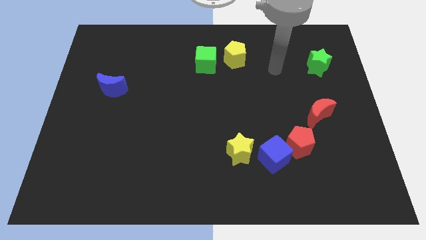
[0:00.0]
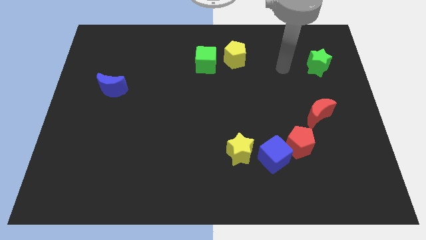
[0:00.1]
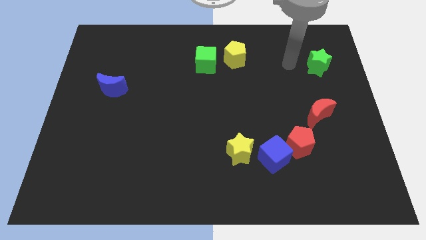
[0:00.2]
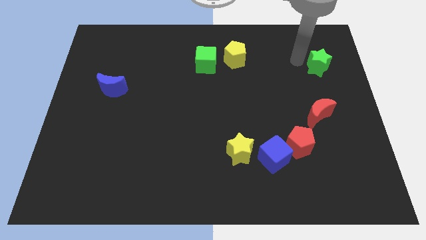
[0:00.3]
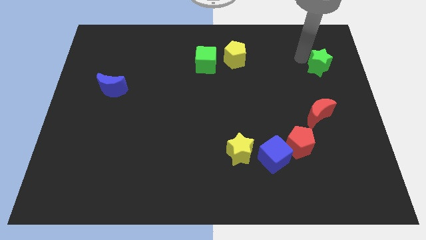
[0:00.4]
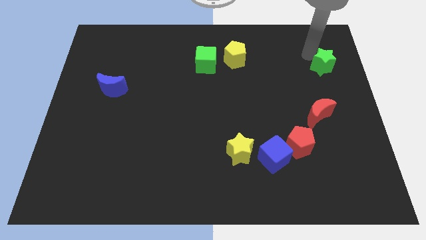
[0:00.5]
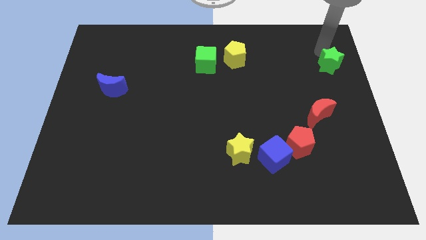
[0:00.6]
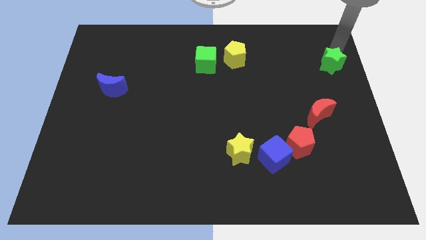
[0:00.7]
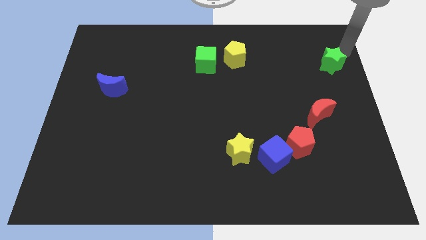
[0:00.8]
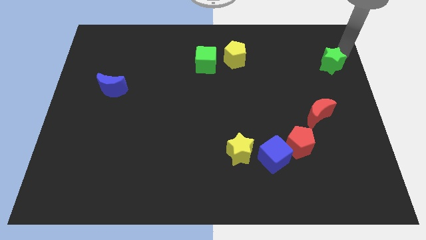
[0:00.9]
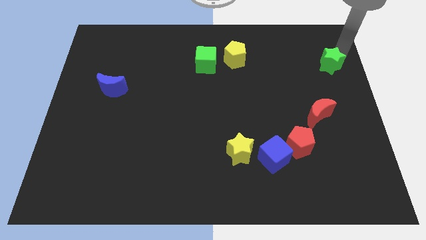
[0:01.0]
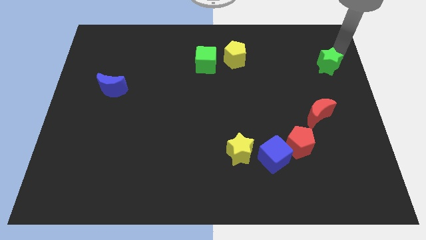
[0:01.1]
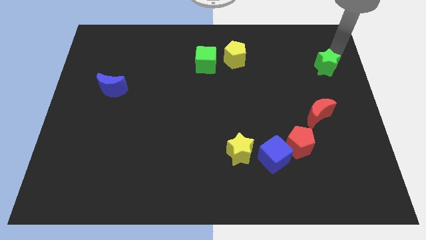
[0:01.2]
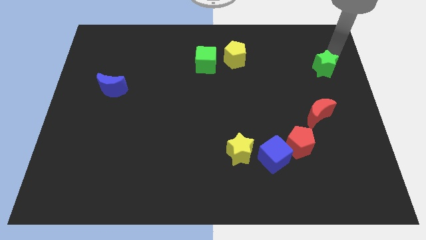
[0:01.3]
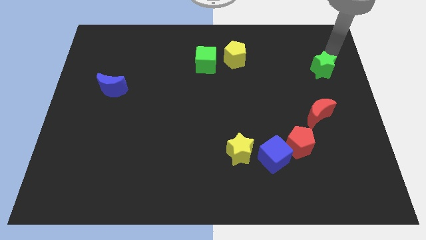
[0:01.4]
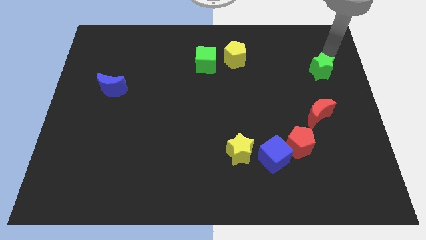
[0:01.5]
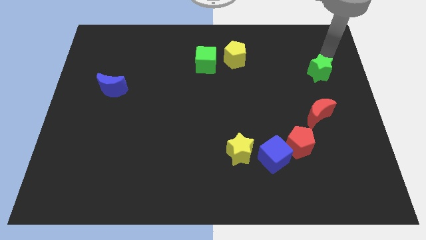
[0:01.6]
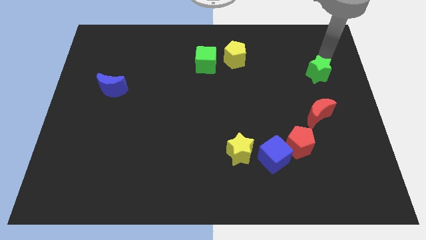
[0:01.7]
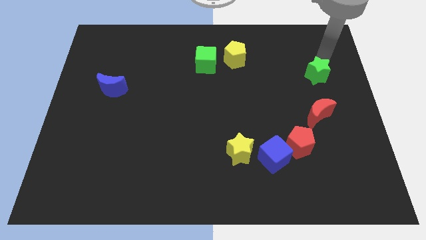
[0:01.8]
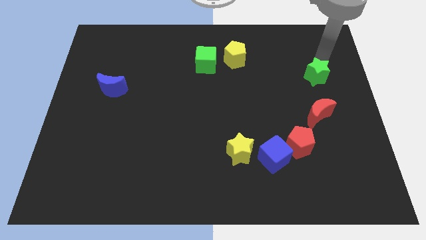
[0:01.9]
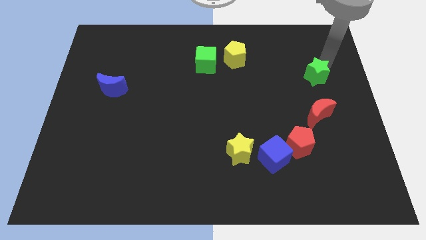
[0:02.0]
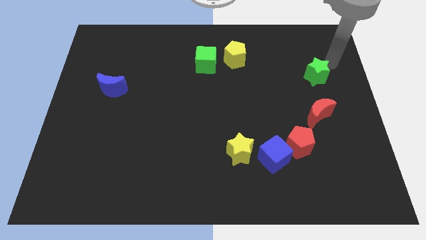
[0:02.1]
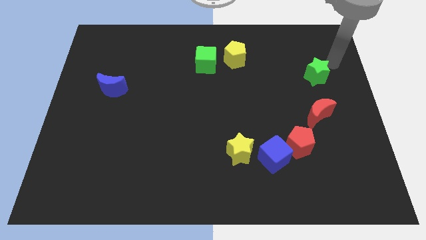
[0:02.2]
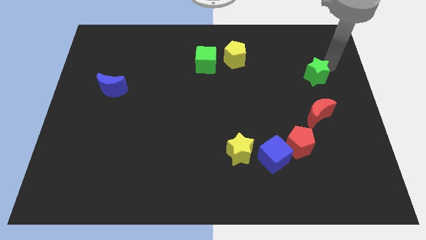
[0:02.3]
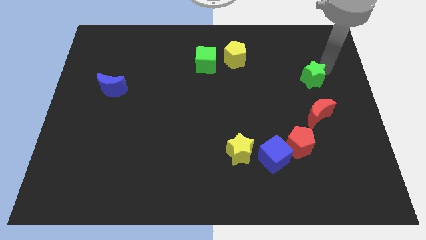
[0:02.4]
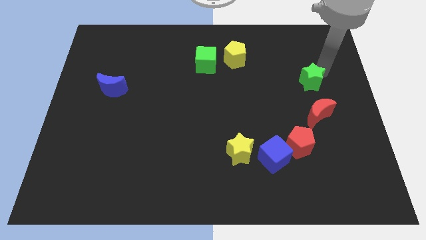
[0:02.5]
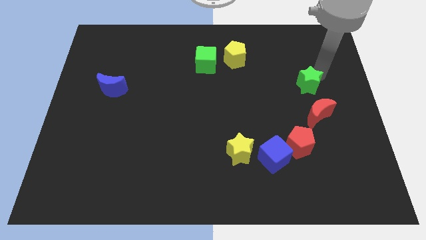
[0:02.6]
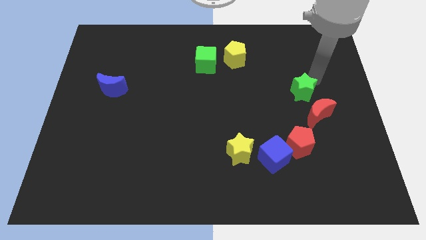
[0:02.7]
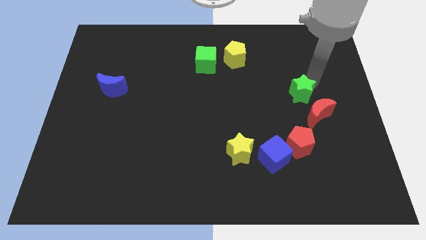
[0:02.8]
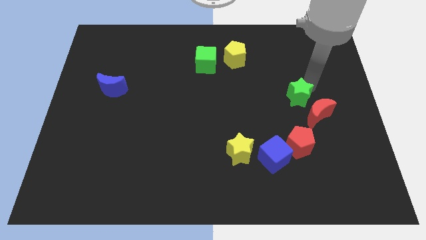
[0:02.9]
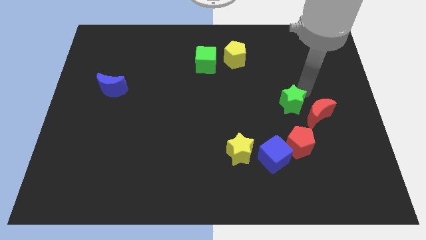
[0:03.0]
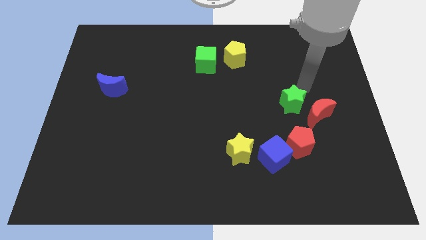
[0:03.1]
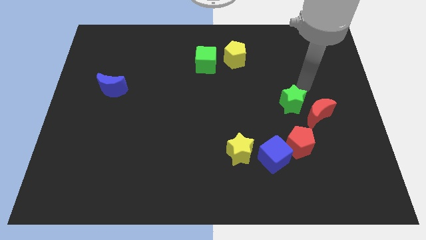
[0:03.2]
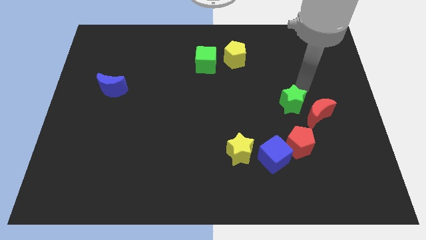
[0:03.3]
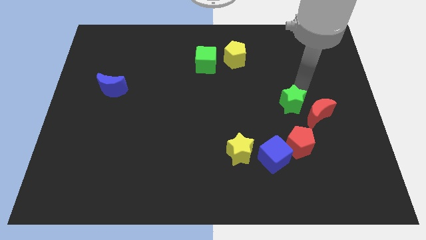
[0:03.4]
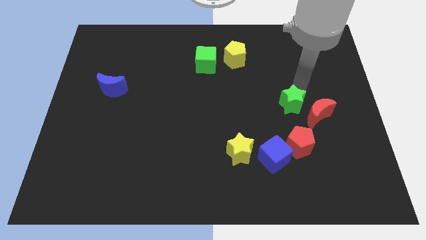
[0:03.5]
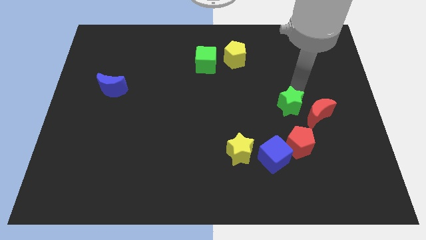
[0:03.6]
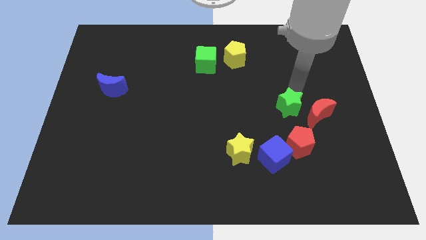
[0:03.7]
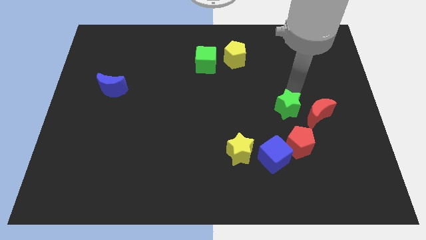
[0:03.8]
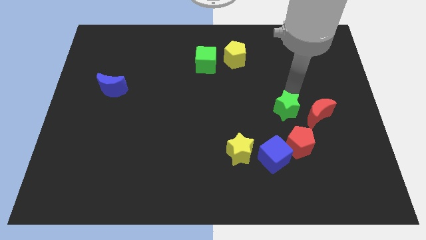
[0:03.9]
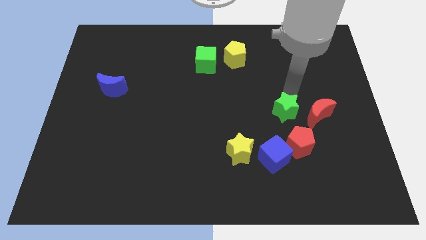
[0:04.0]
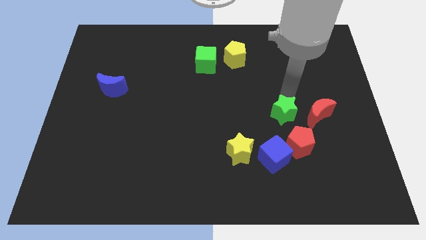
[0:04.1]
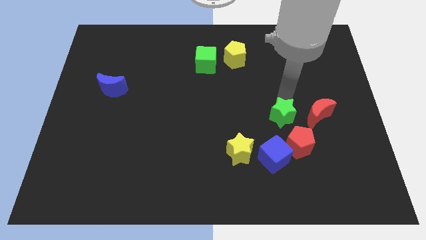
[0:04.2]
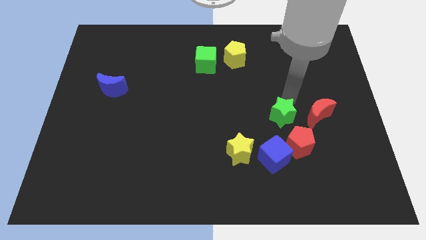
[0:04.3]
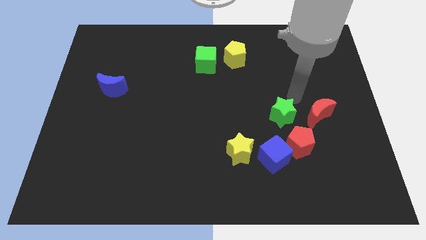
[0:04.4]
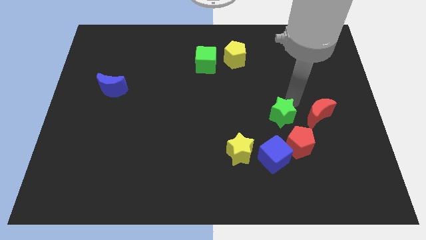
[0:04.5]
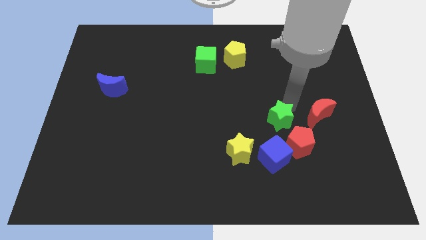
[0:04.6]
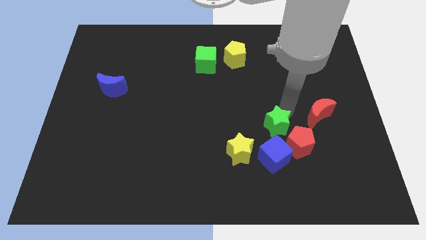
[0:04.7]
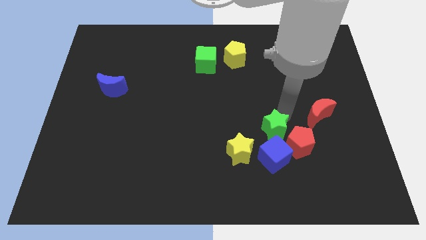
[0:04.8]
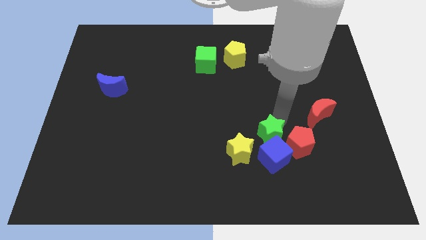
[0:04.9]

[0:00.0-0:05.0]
slide the green star close to the blue cube

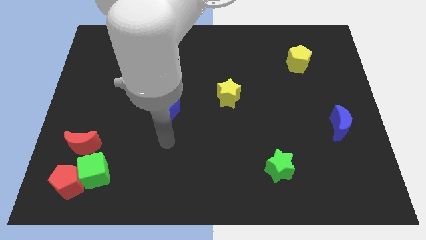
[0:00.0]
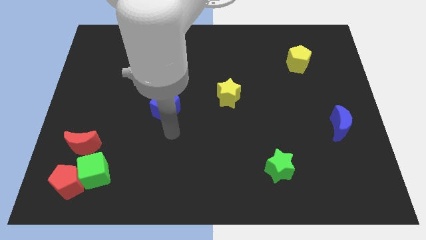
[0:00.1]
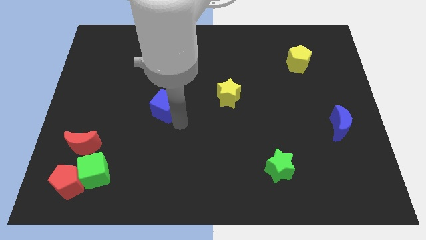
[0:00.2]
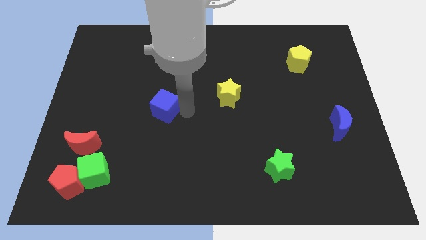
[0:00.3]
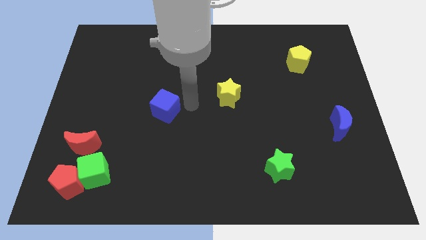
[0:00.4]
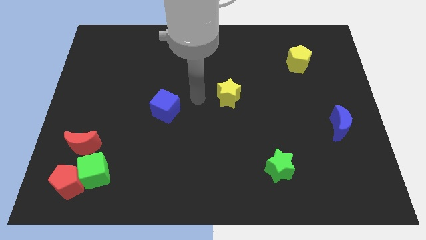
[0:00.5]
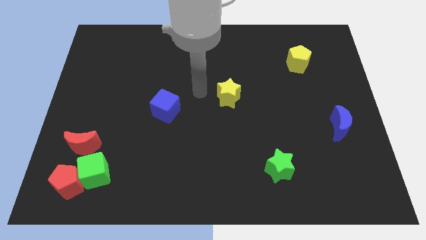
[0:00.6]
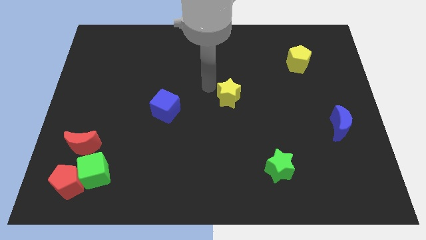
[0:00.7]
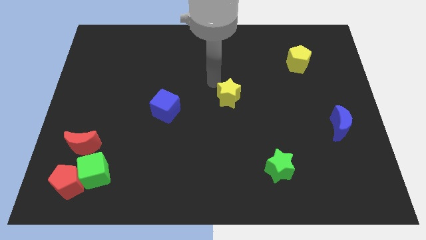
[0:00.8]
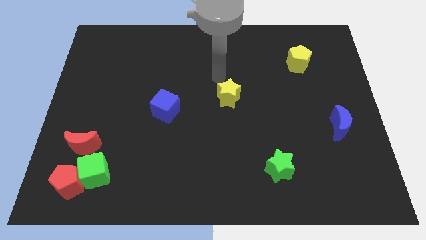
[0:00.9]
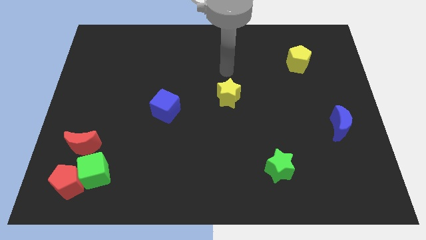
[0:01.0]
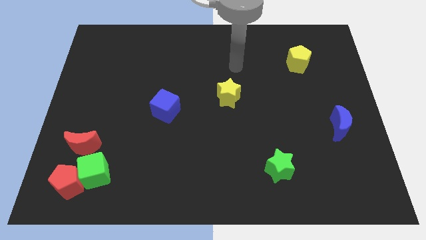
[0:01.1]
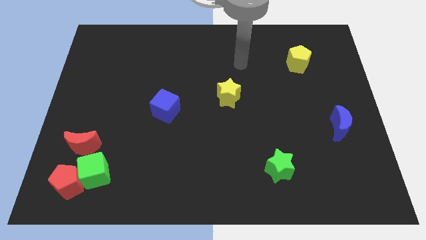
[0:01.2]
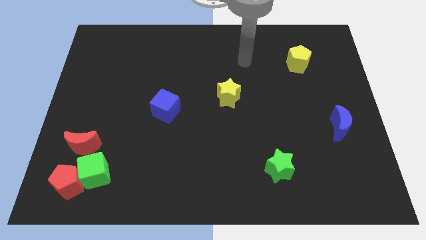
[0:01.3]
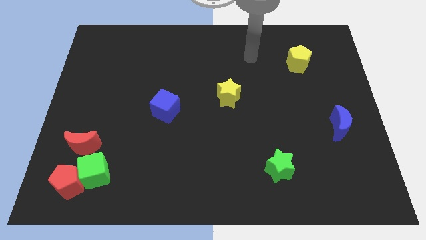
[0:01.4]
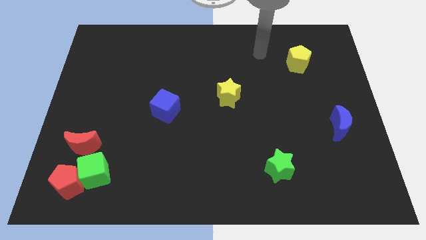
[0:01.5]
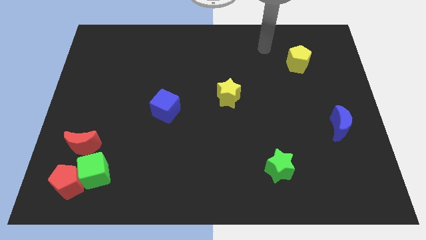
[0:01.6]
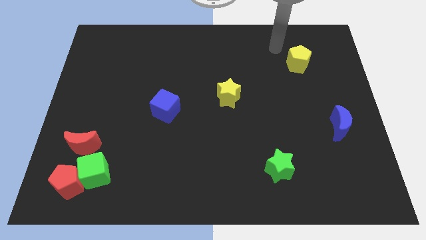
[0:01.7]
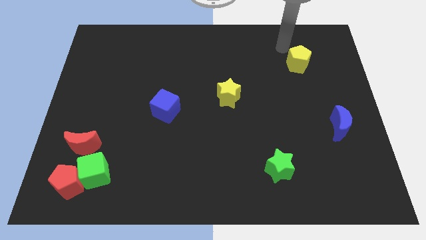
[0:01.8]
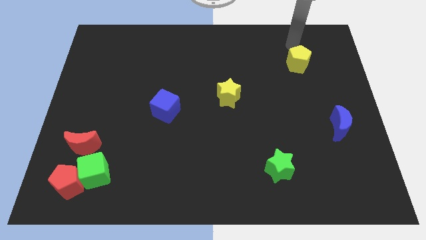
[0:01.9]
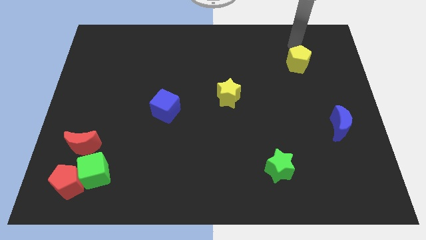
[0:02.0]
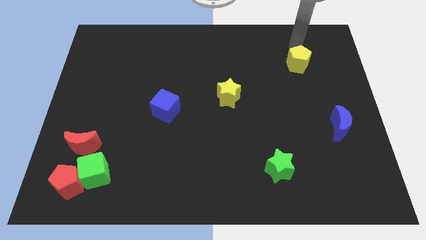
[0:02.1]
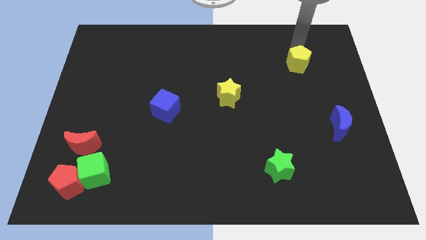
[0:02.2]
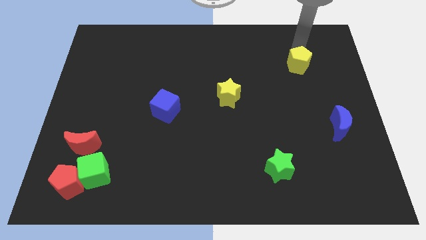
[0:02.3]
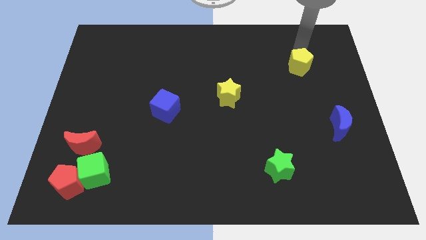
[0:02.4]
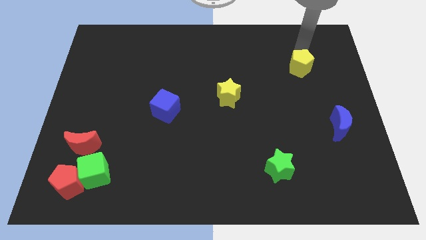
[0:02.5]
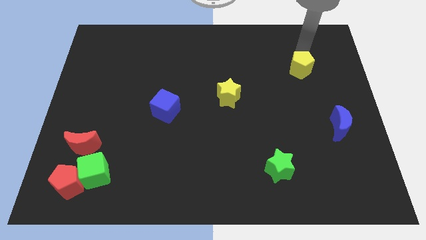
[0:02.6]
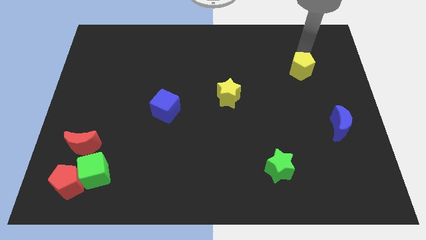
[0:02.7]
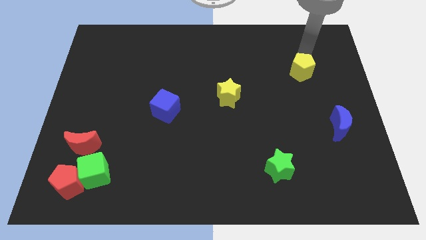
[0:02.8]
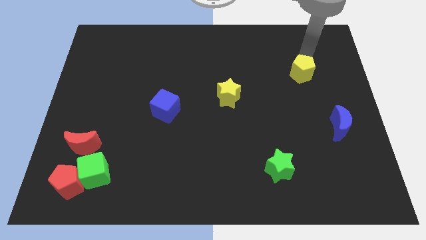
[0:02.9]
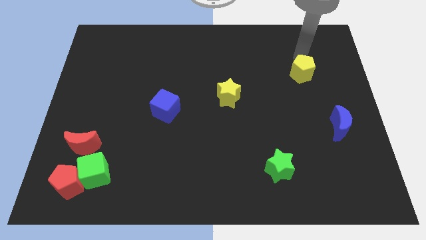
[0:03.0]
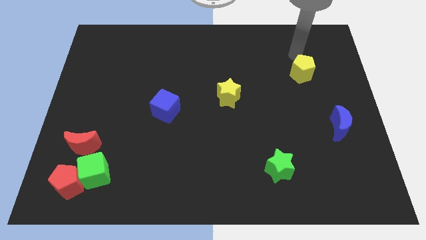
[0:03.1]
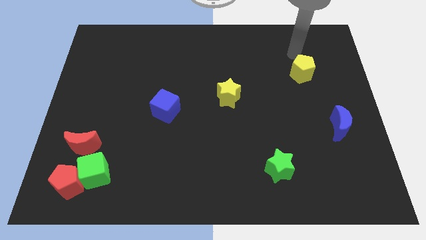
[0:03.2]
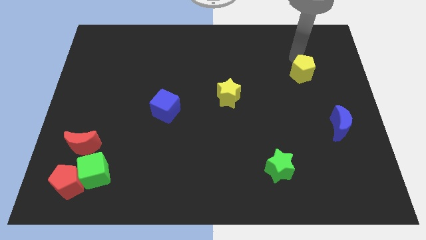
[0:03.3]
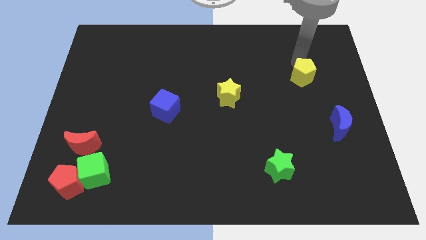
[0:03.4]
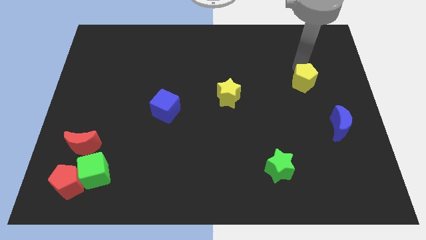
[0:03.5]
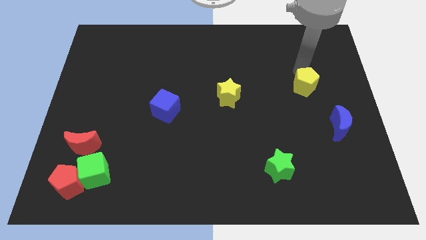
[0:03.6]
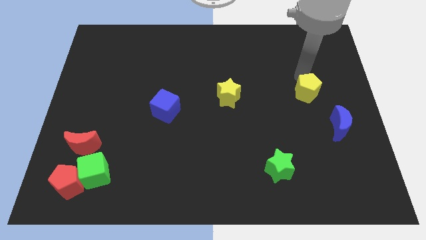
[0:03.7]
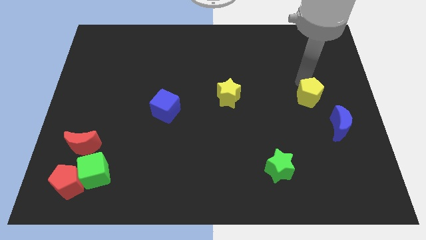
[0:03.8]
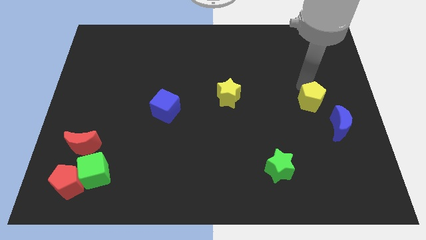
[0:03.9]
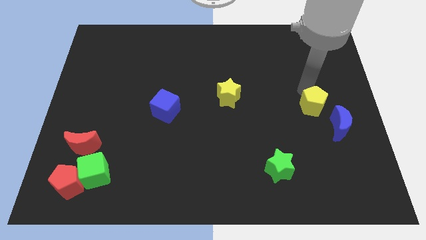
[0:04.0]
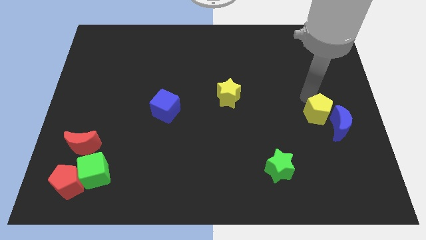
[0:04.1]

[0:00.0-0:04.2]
move the yellow pentagon close to the blue moon
